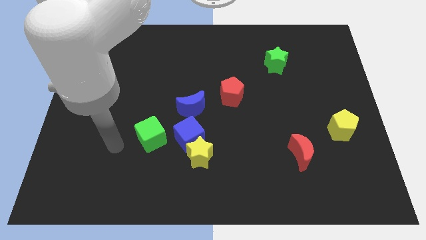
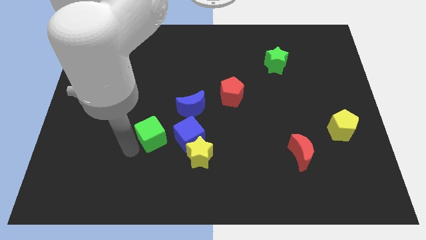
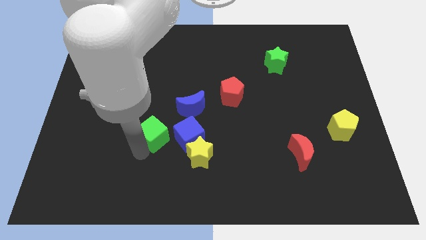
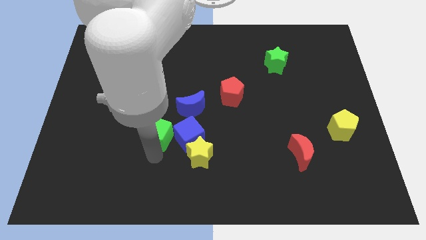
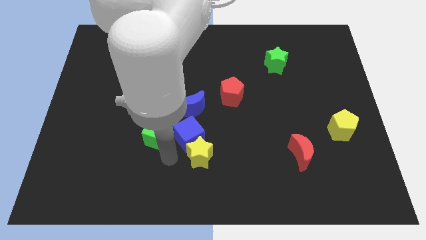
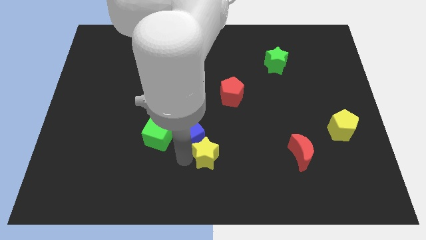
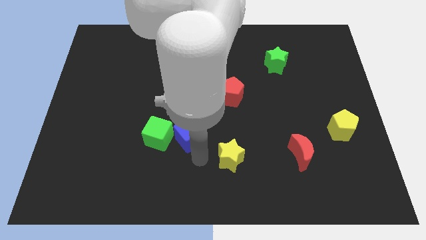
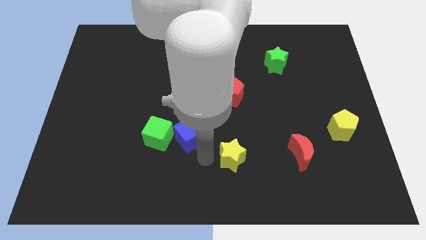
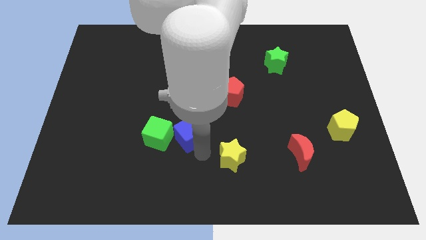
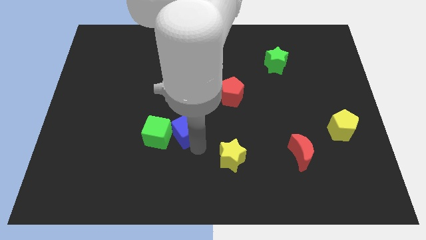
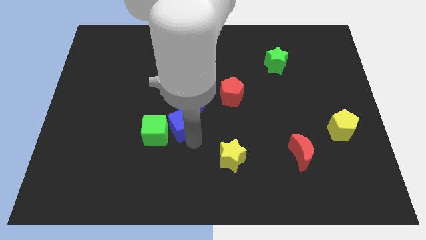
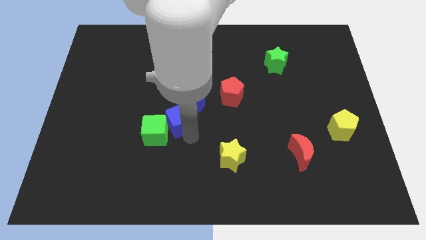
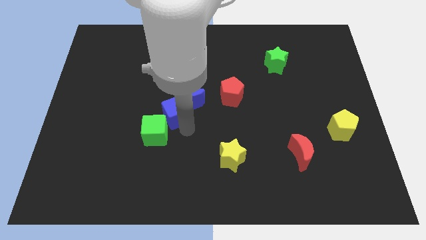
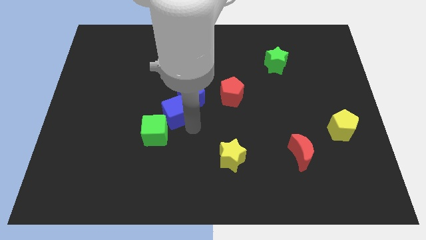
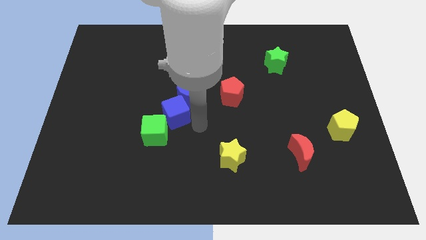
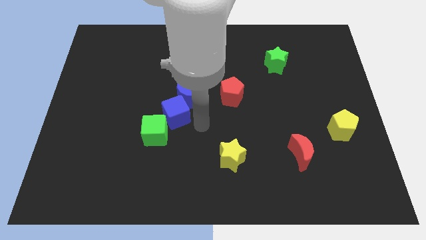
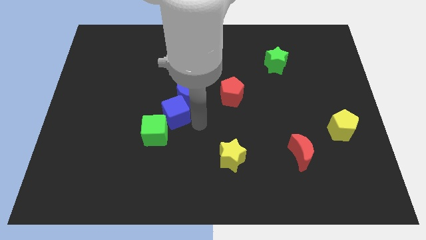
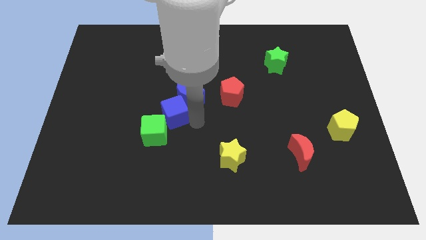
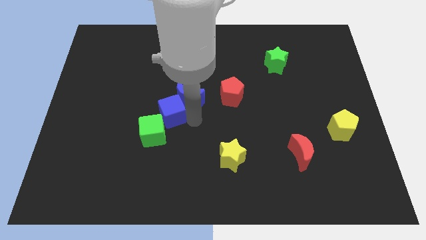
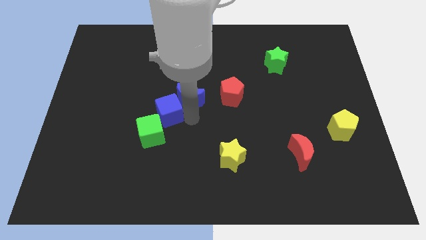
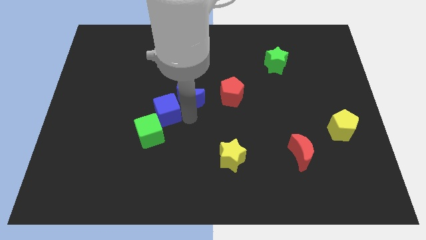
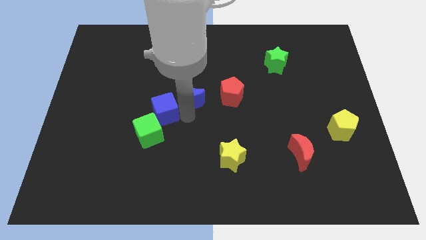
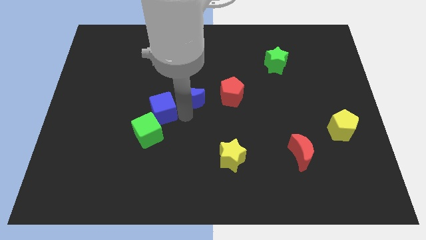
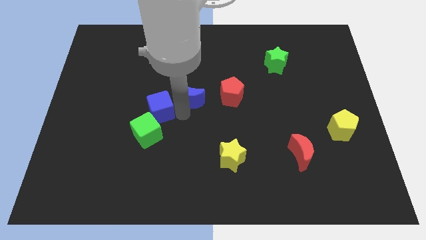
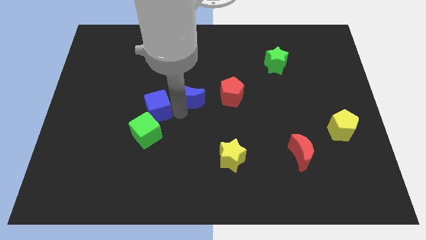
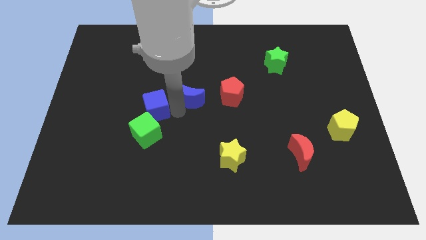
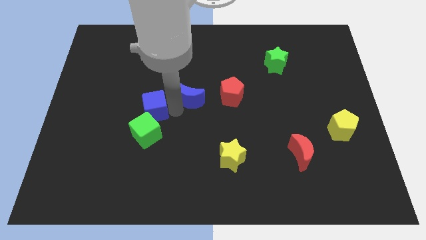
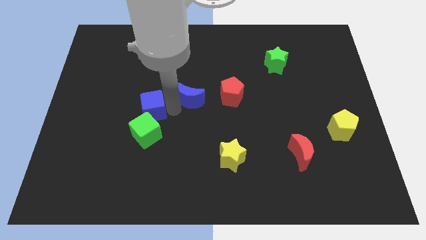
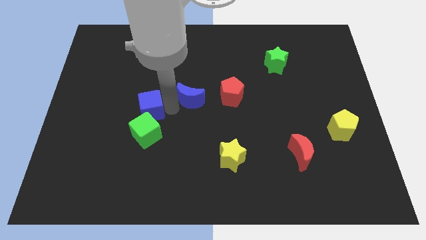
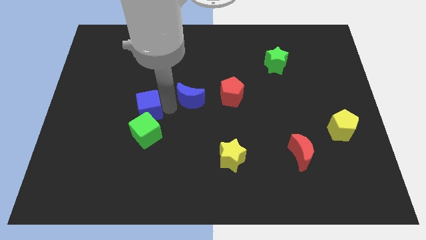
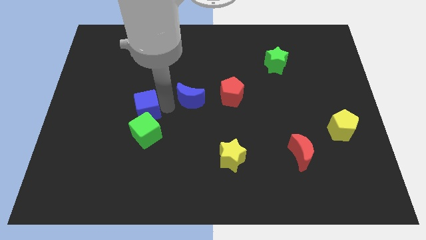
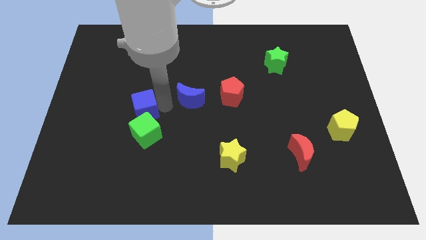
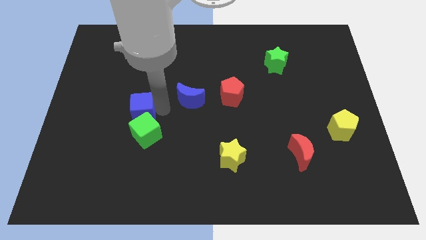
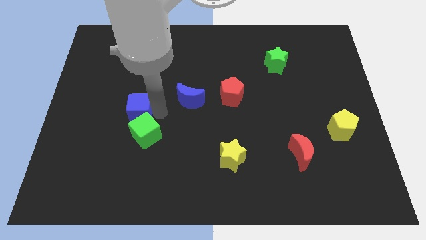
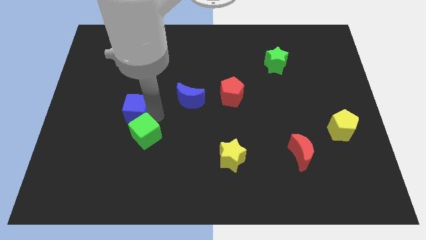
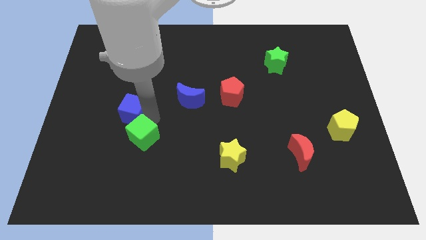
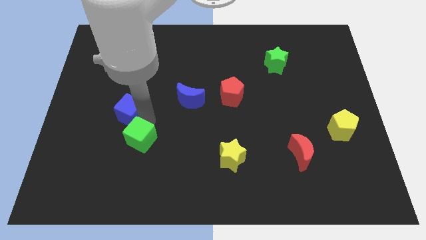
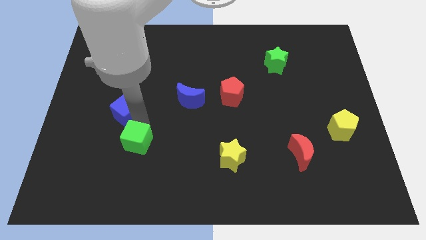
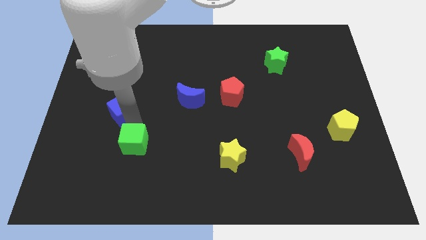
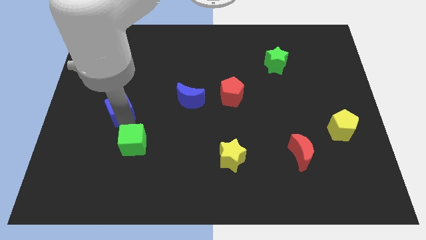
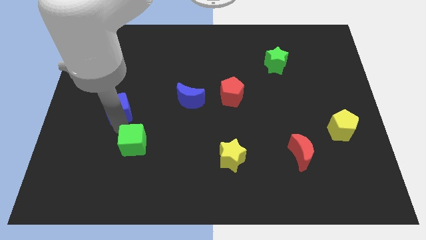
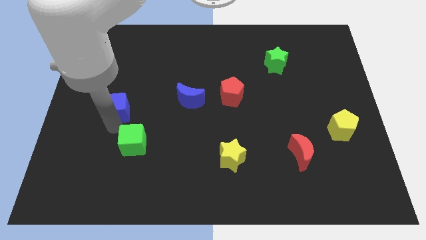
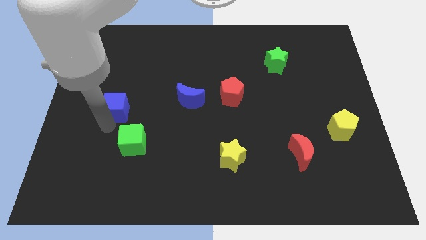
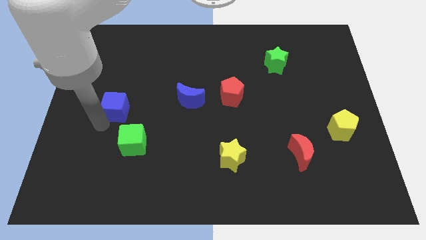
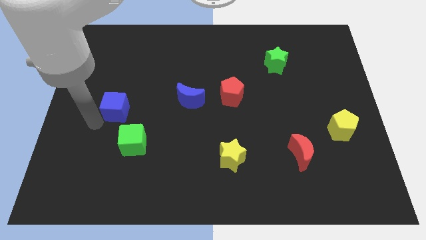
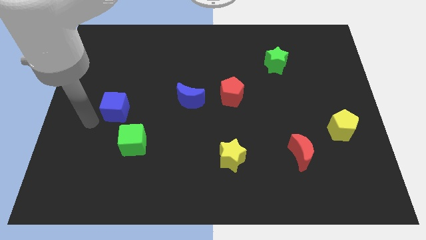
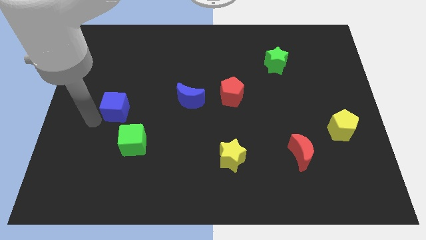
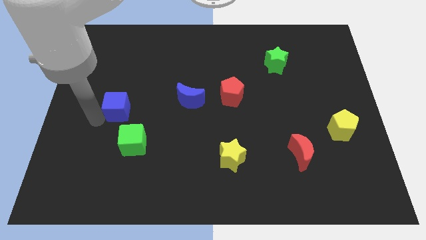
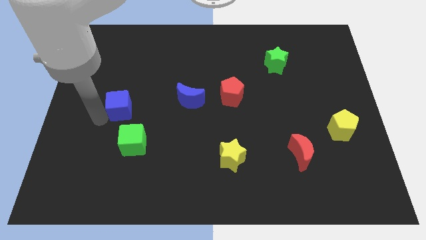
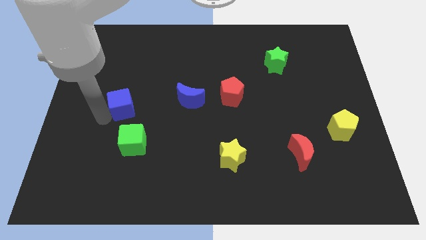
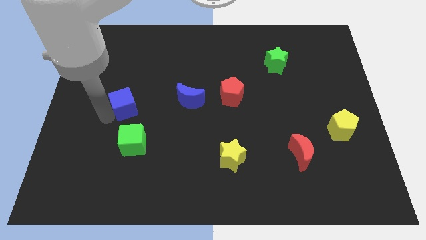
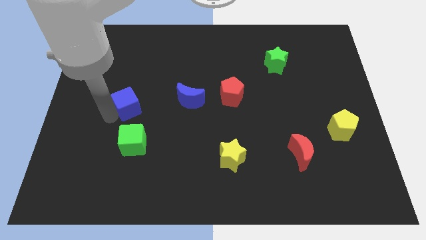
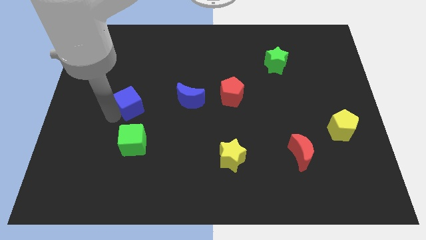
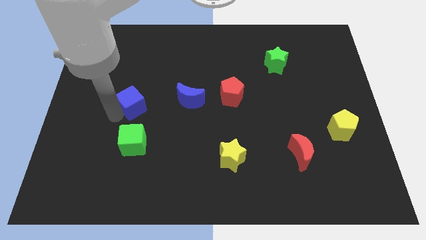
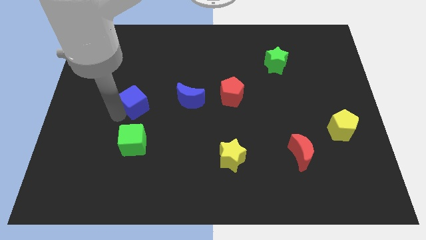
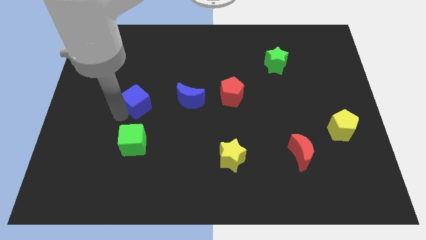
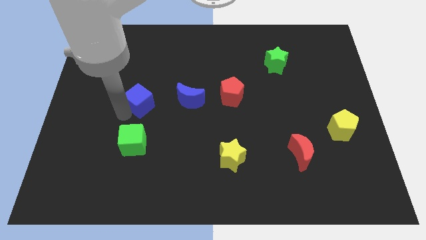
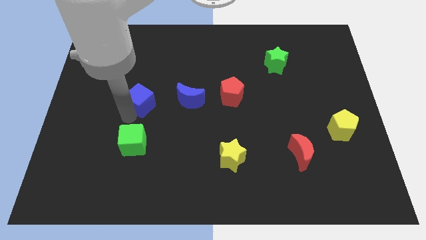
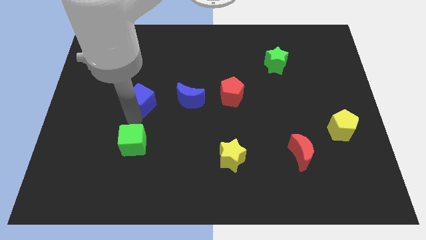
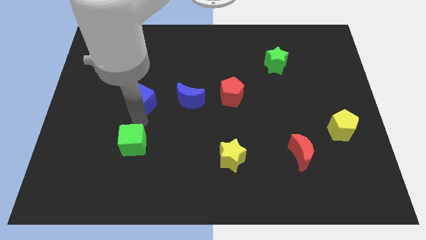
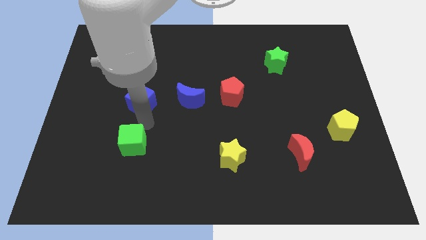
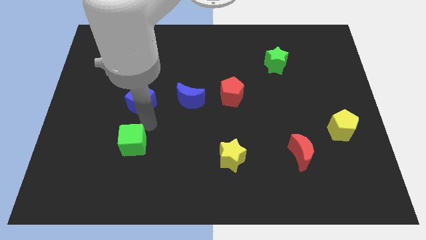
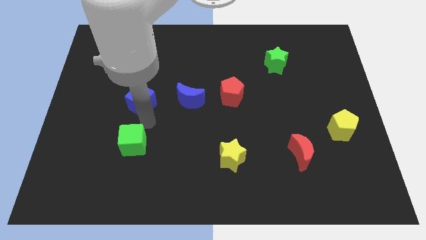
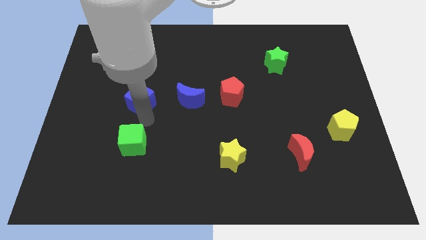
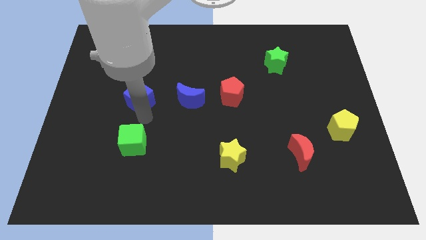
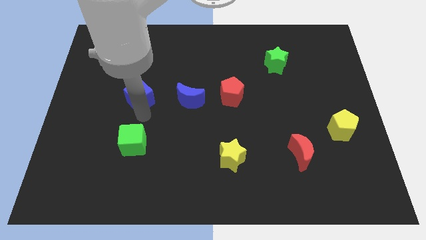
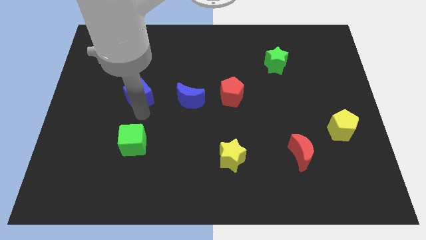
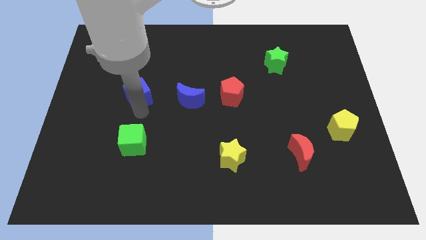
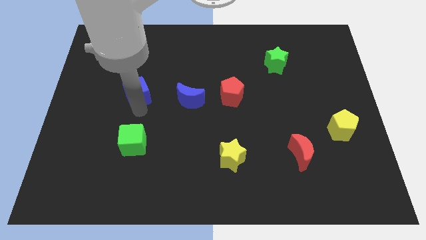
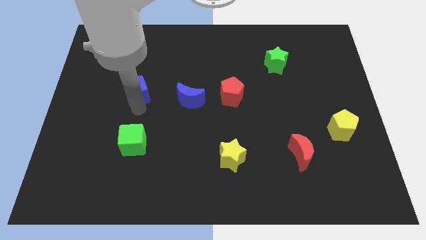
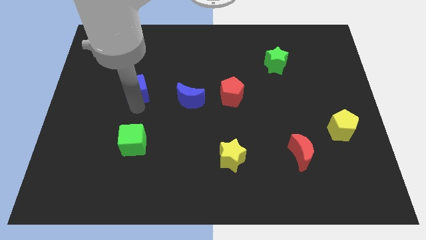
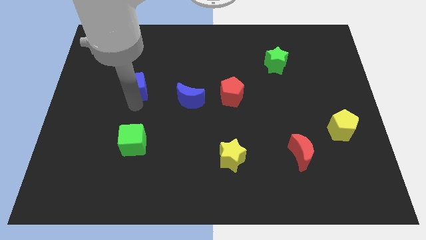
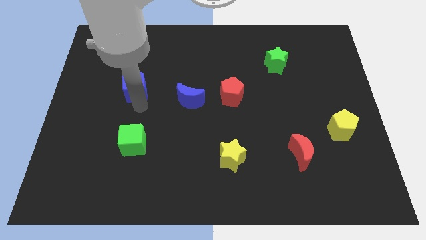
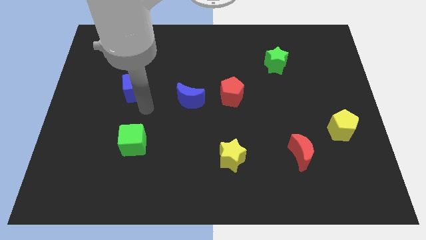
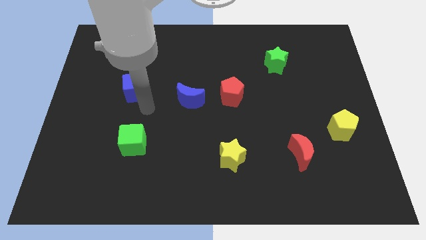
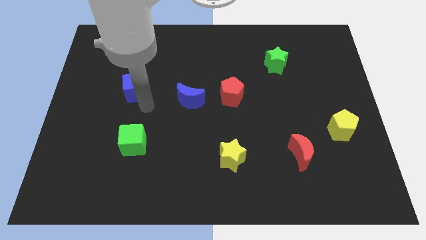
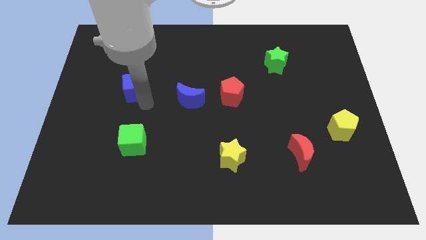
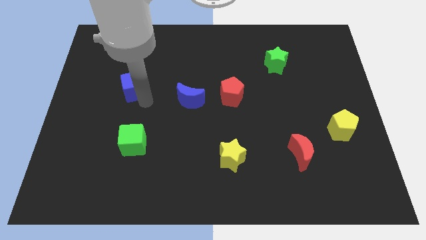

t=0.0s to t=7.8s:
slide the blue cube upwards and to the left
